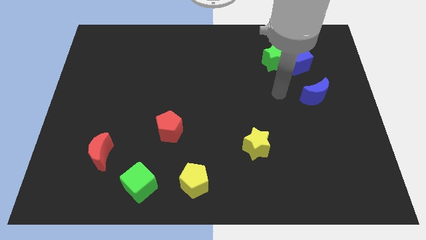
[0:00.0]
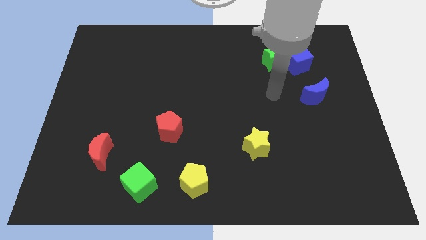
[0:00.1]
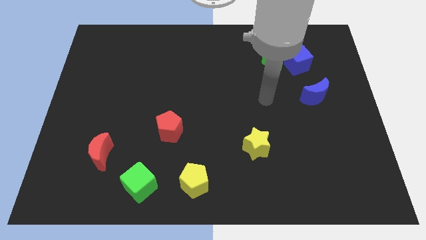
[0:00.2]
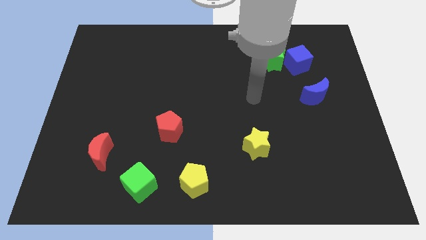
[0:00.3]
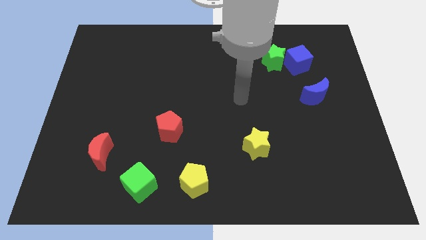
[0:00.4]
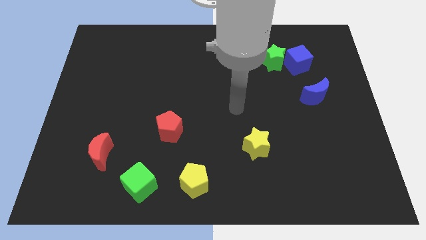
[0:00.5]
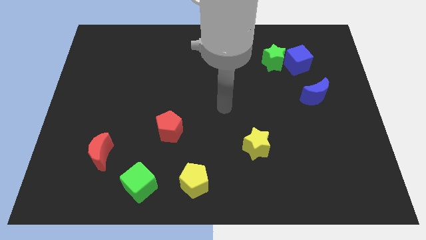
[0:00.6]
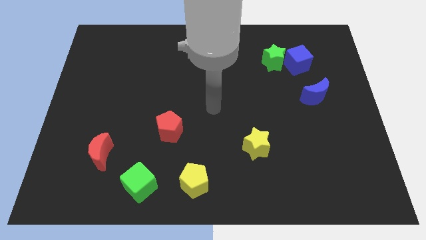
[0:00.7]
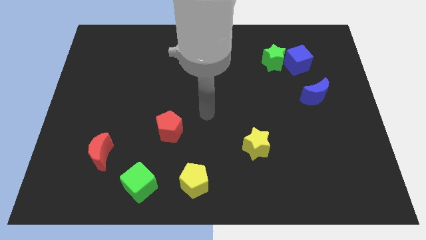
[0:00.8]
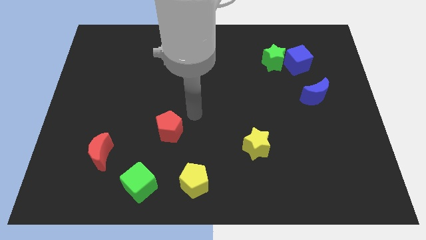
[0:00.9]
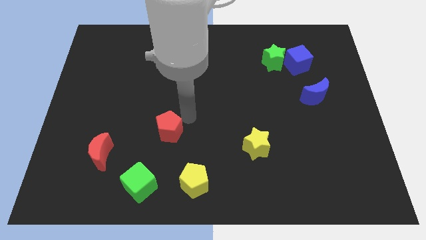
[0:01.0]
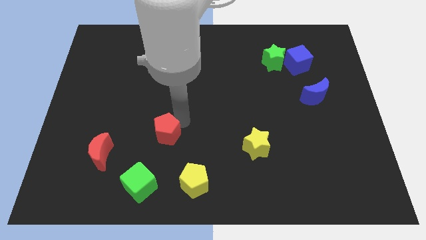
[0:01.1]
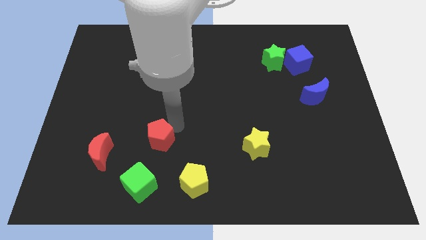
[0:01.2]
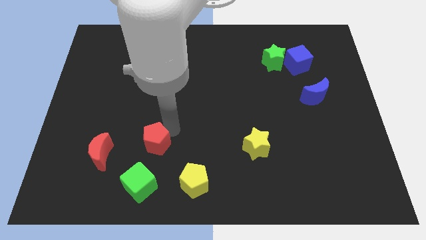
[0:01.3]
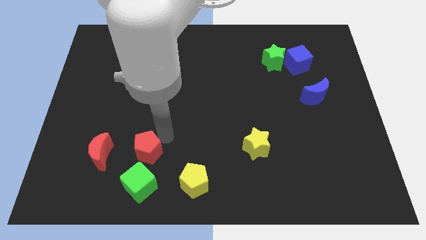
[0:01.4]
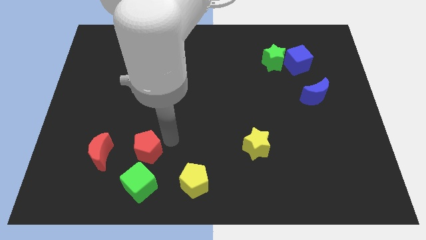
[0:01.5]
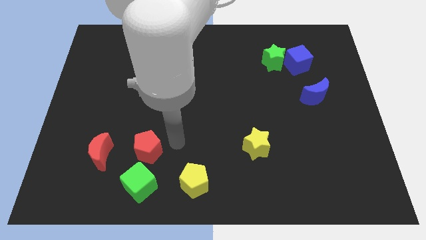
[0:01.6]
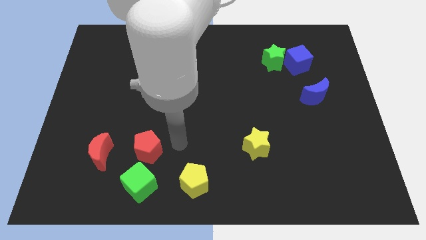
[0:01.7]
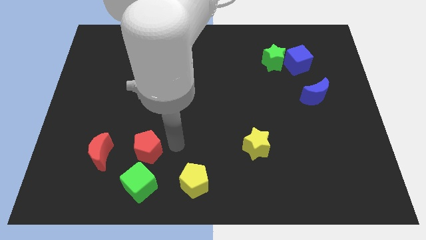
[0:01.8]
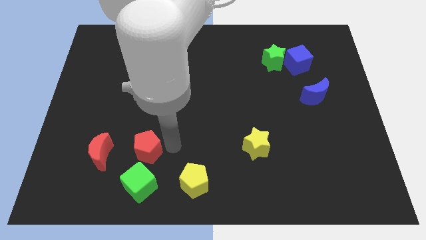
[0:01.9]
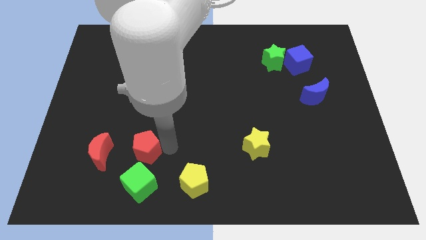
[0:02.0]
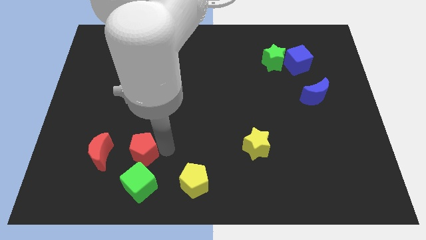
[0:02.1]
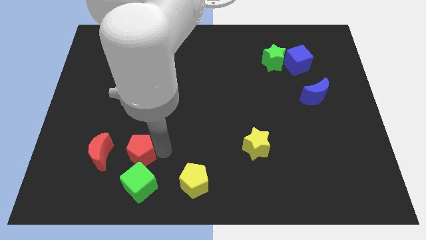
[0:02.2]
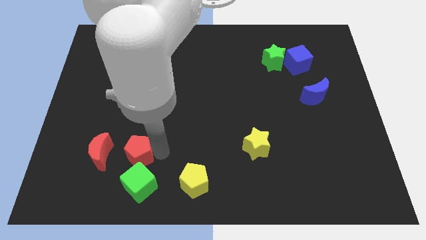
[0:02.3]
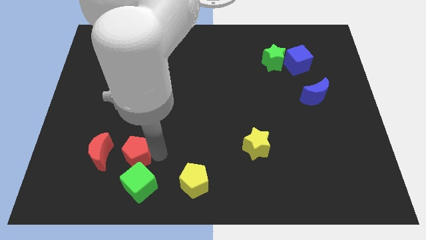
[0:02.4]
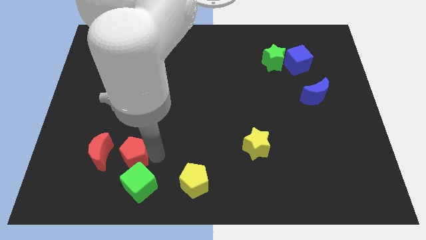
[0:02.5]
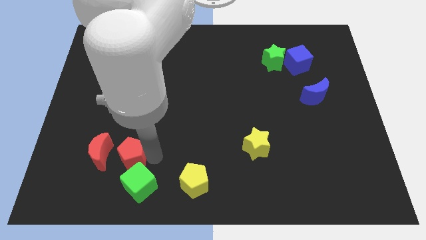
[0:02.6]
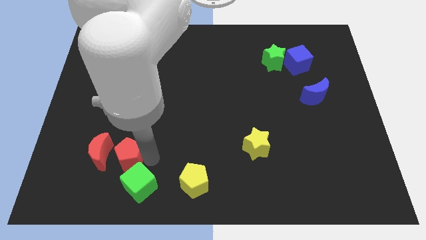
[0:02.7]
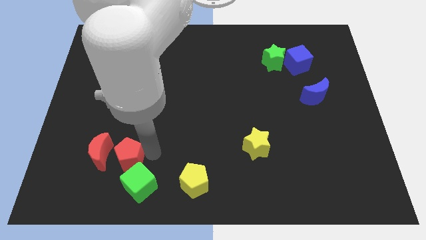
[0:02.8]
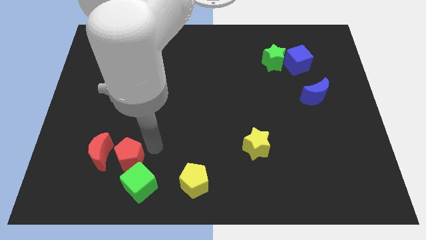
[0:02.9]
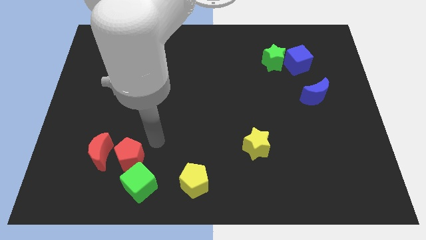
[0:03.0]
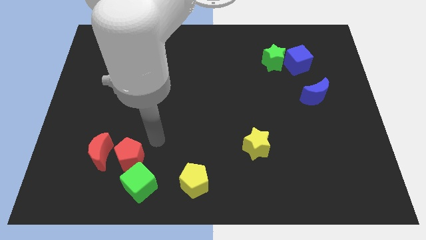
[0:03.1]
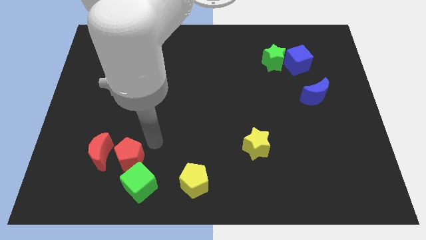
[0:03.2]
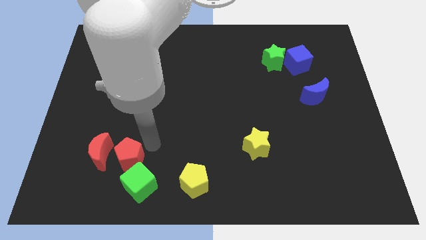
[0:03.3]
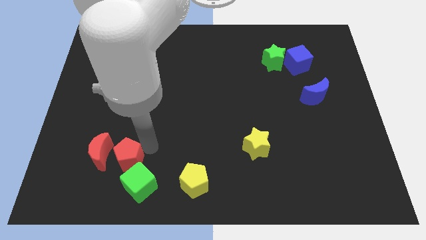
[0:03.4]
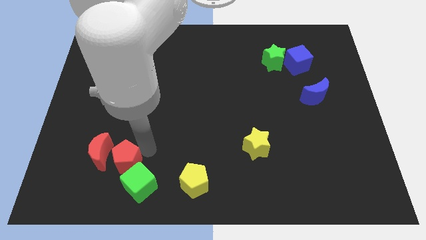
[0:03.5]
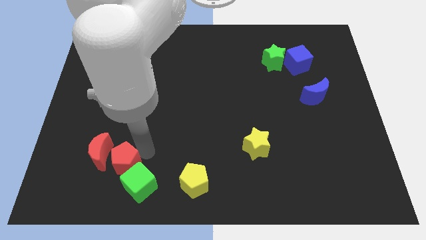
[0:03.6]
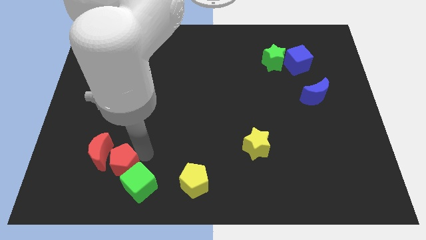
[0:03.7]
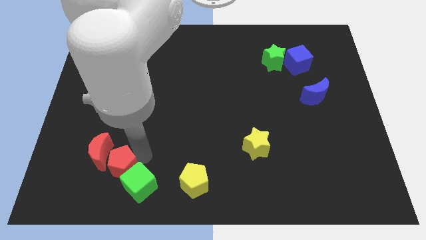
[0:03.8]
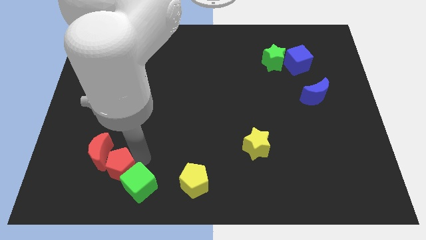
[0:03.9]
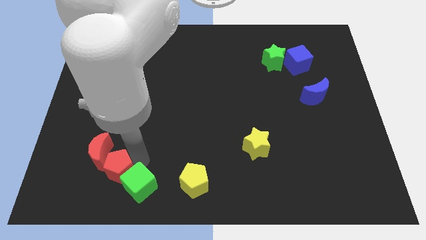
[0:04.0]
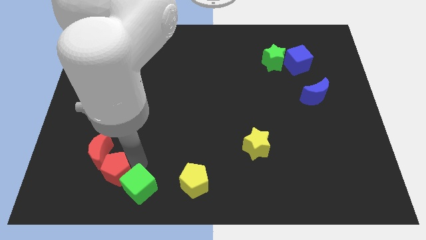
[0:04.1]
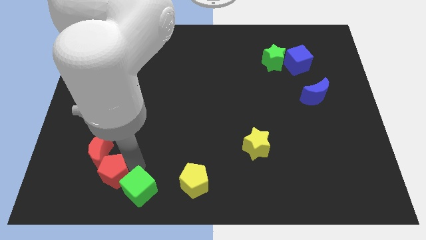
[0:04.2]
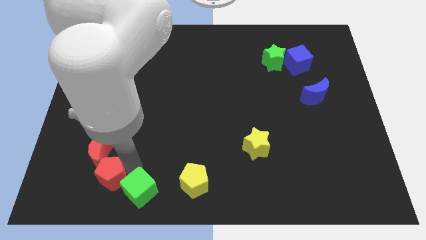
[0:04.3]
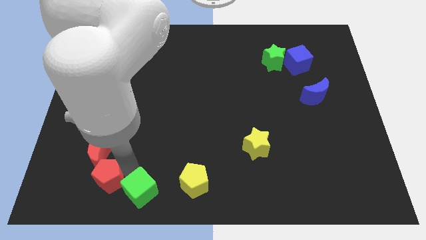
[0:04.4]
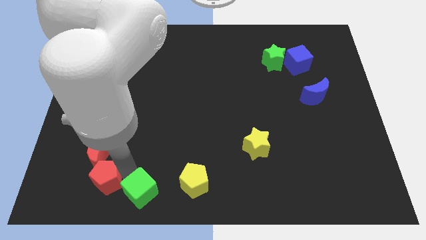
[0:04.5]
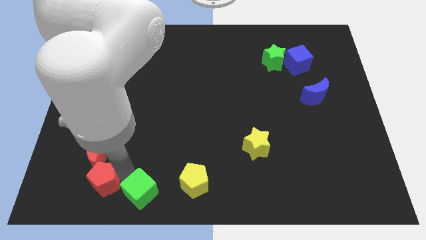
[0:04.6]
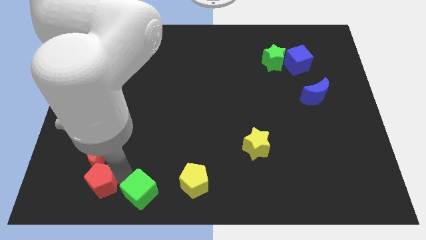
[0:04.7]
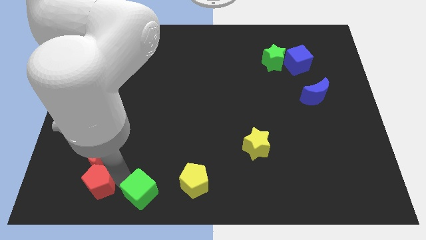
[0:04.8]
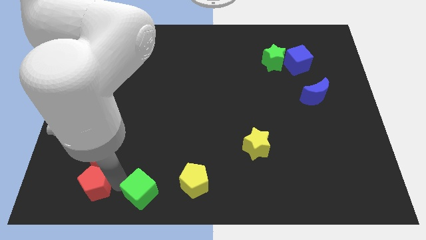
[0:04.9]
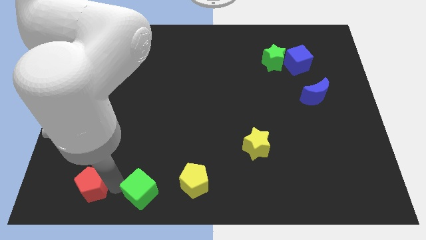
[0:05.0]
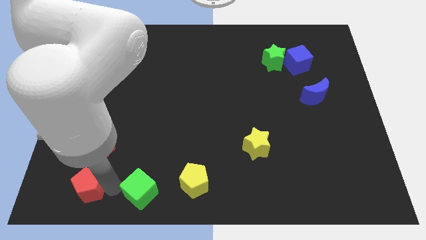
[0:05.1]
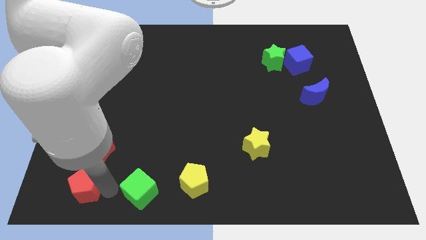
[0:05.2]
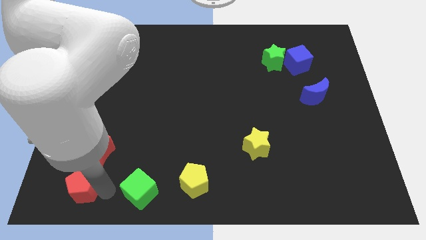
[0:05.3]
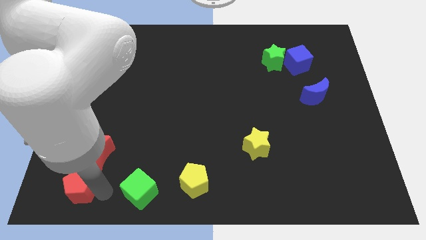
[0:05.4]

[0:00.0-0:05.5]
slide the red pentagon to the bottom left

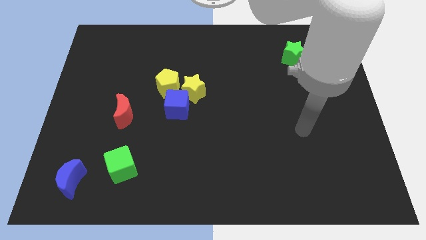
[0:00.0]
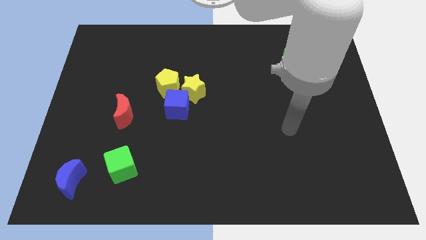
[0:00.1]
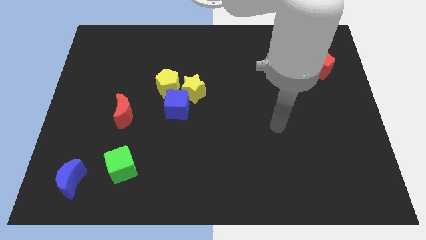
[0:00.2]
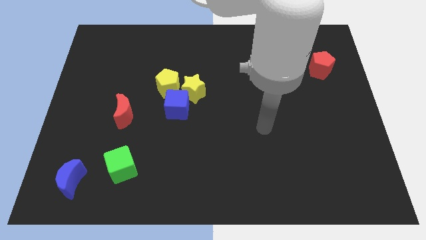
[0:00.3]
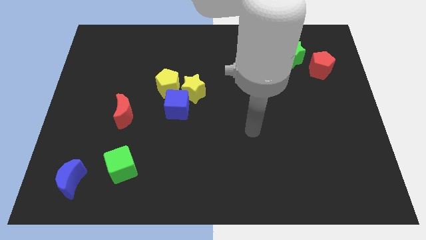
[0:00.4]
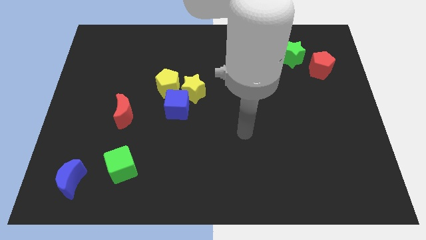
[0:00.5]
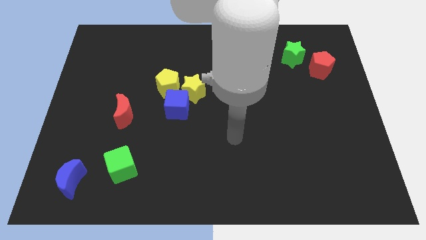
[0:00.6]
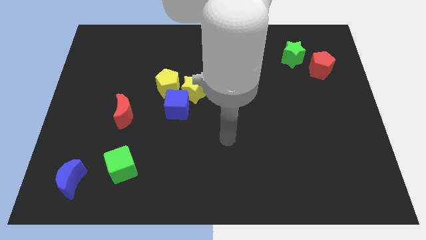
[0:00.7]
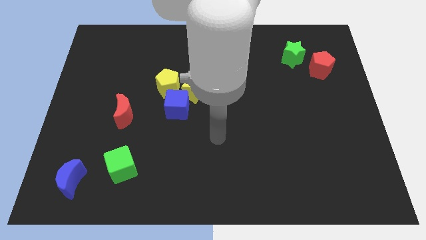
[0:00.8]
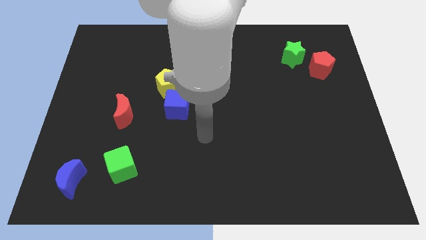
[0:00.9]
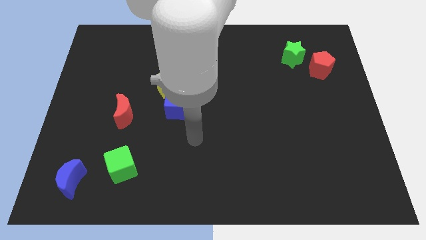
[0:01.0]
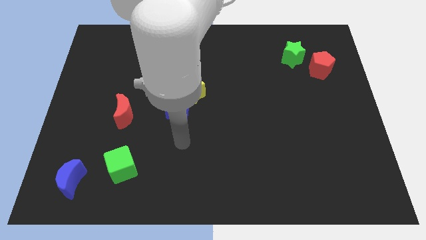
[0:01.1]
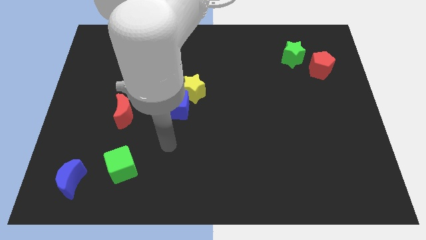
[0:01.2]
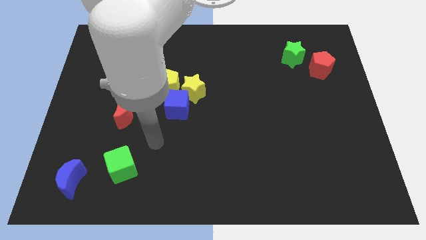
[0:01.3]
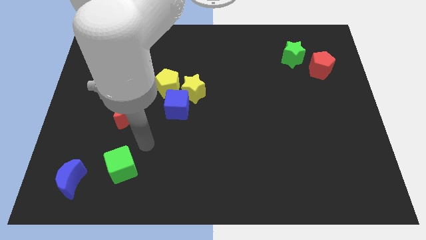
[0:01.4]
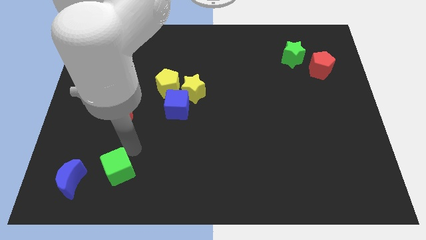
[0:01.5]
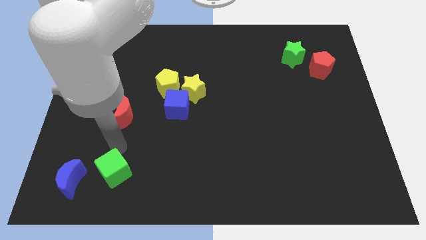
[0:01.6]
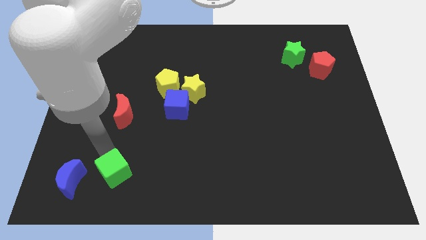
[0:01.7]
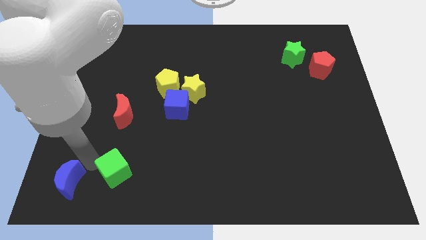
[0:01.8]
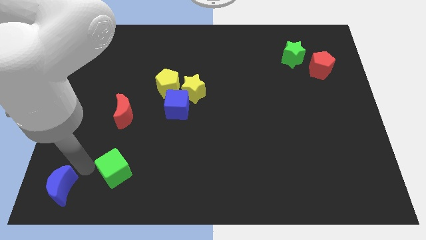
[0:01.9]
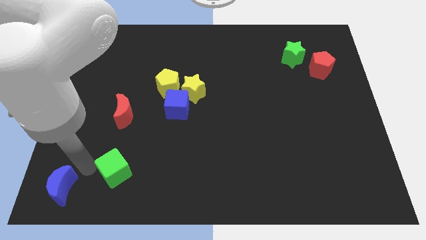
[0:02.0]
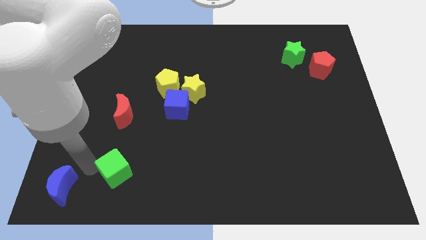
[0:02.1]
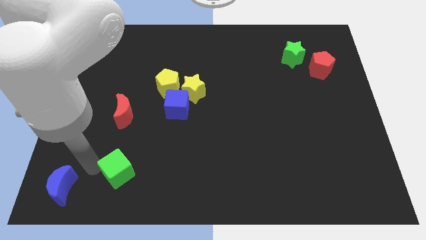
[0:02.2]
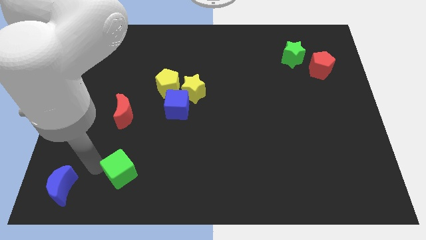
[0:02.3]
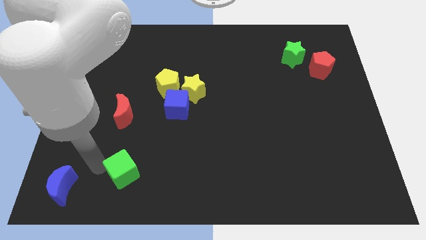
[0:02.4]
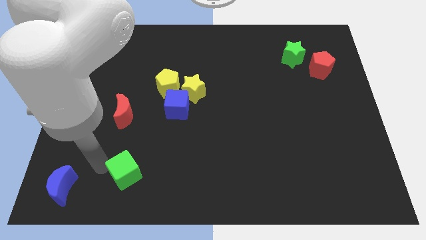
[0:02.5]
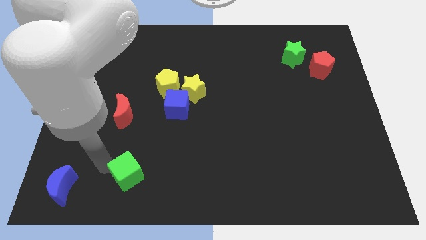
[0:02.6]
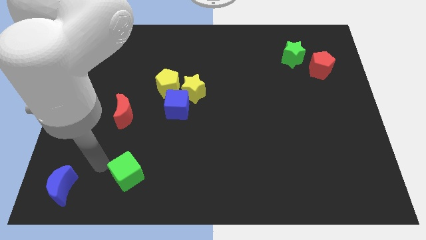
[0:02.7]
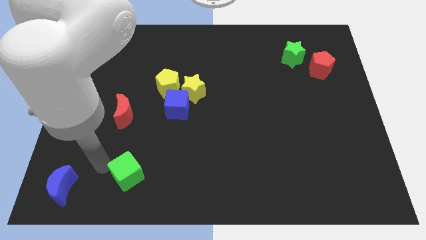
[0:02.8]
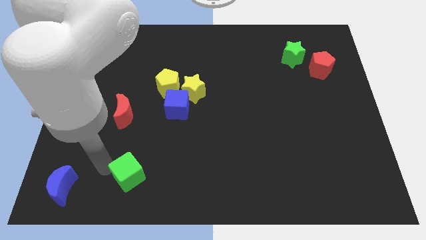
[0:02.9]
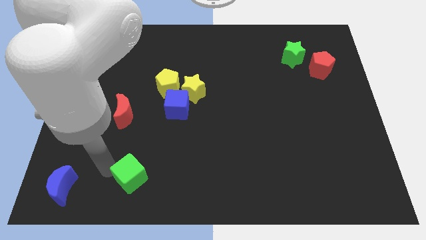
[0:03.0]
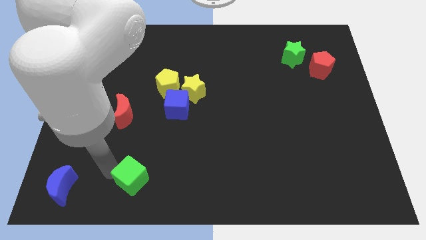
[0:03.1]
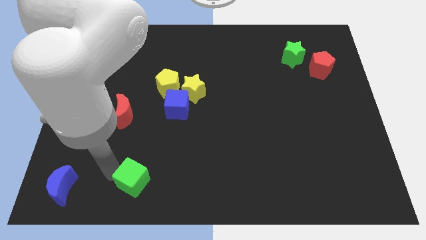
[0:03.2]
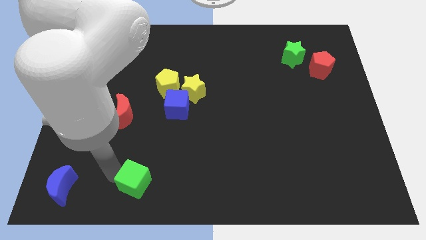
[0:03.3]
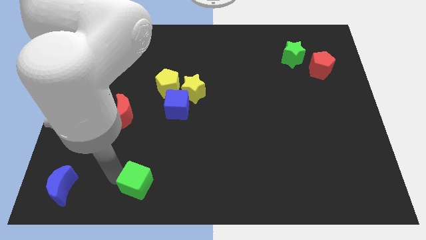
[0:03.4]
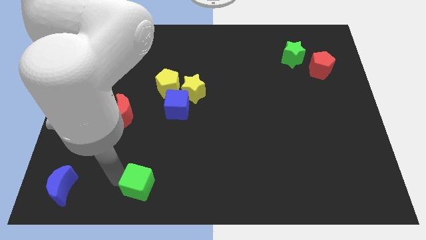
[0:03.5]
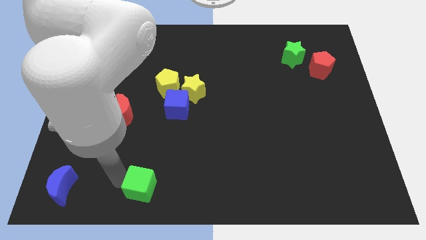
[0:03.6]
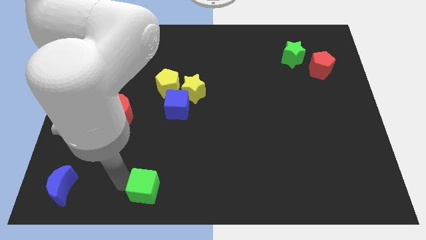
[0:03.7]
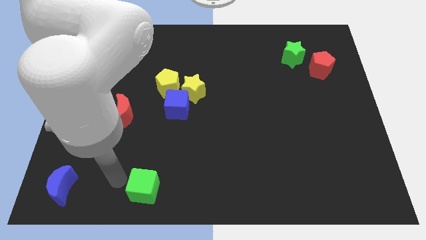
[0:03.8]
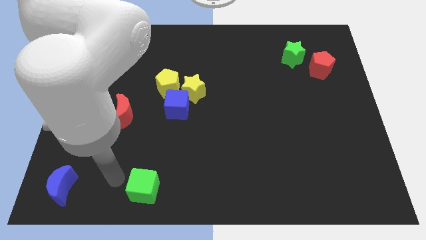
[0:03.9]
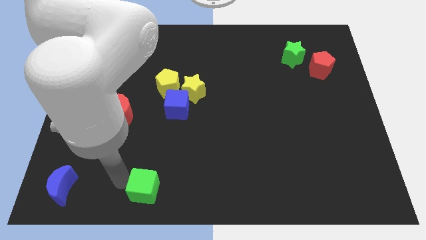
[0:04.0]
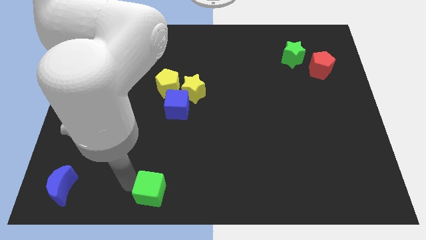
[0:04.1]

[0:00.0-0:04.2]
slide the green cube to the bottom side
